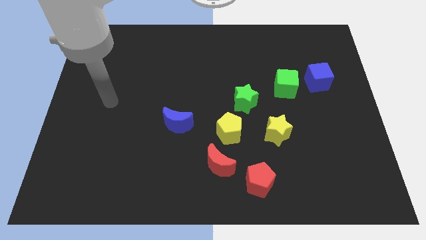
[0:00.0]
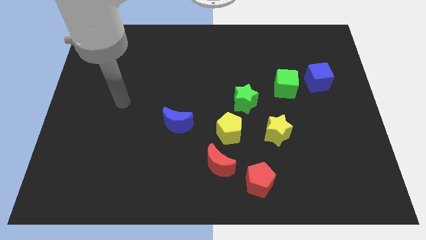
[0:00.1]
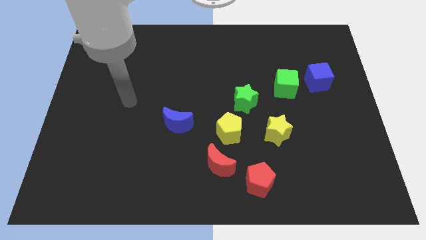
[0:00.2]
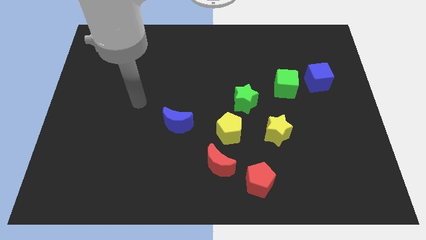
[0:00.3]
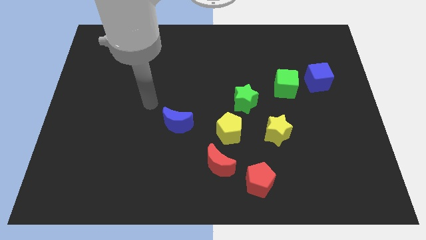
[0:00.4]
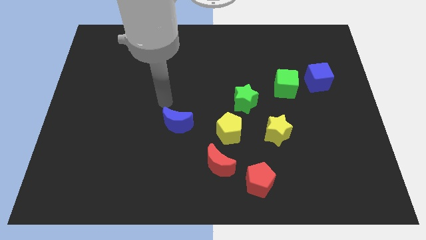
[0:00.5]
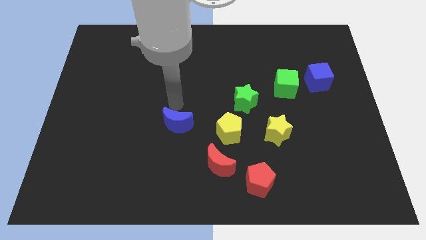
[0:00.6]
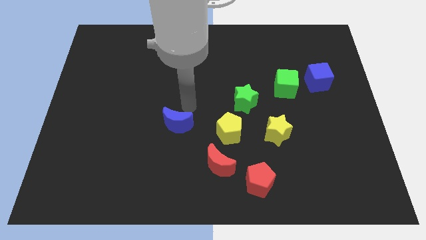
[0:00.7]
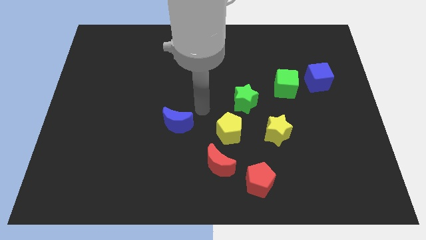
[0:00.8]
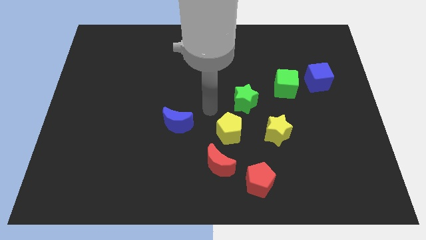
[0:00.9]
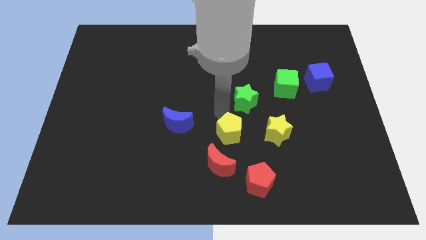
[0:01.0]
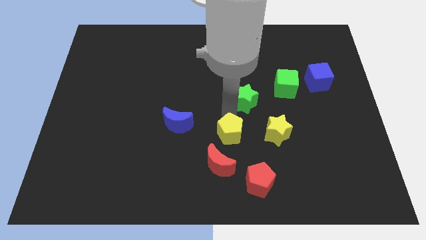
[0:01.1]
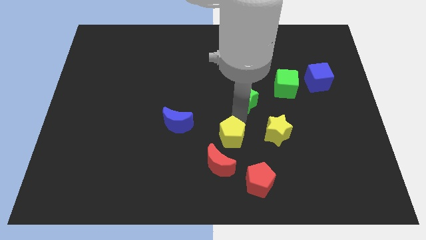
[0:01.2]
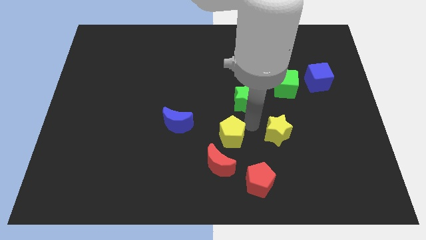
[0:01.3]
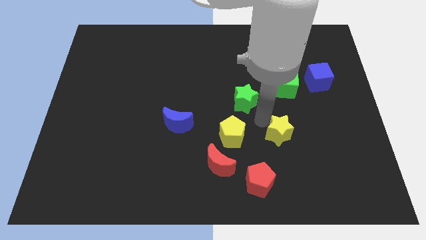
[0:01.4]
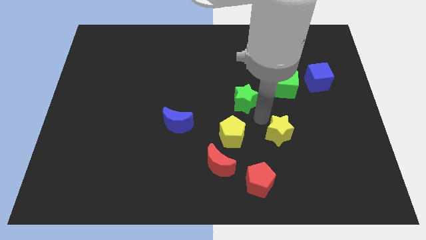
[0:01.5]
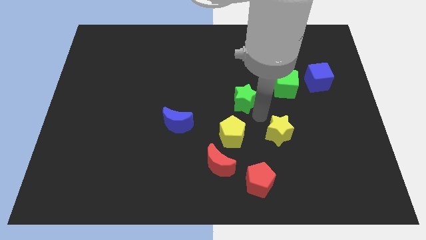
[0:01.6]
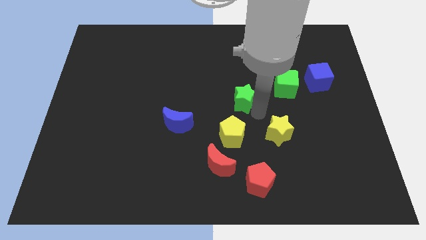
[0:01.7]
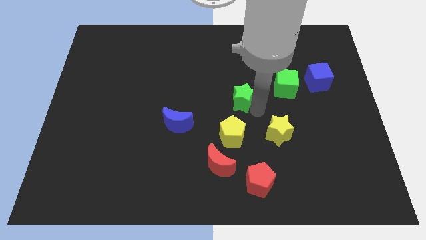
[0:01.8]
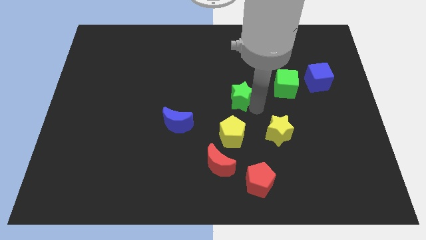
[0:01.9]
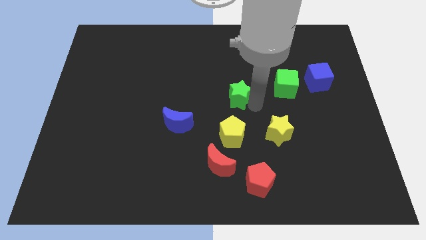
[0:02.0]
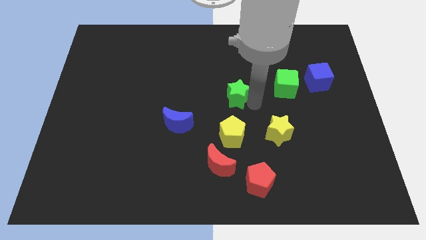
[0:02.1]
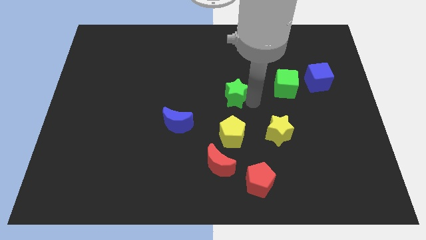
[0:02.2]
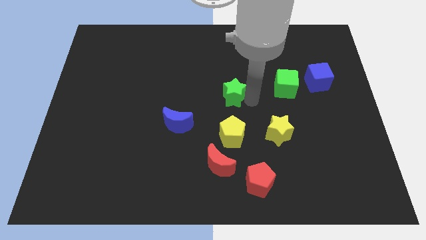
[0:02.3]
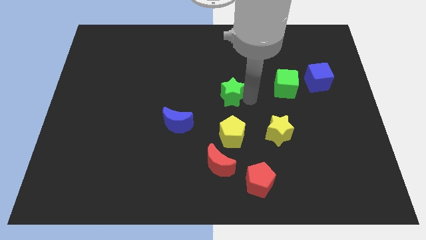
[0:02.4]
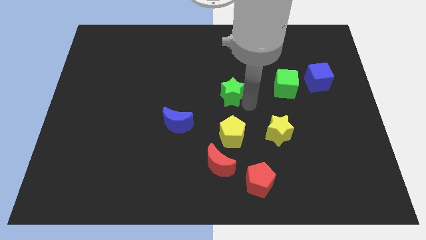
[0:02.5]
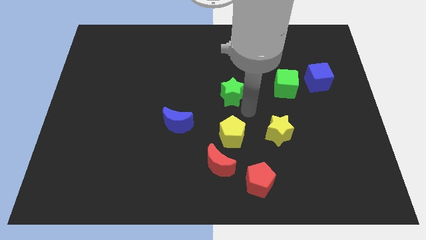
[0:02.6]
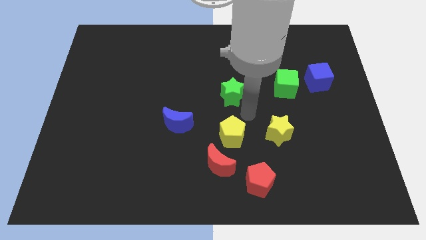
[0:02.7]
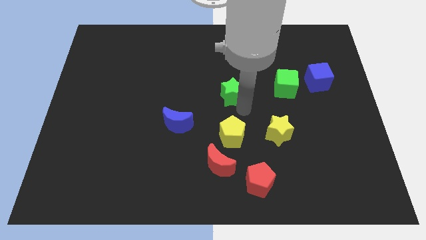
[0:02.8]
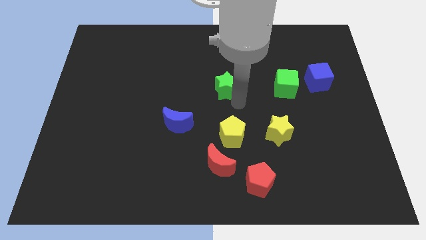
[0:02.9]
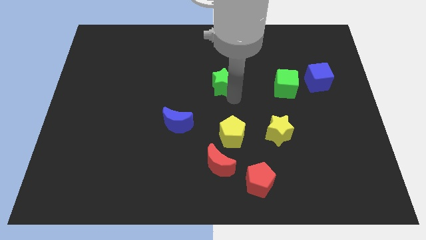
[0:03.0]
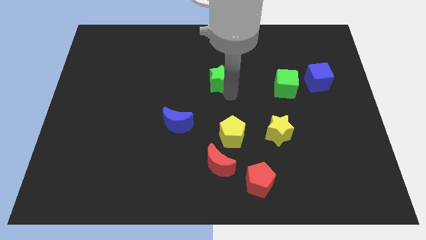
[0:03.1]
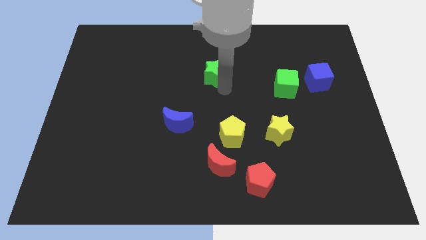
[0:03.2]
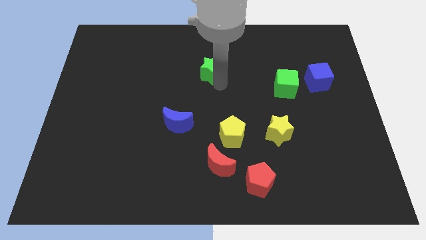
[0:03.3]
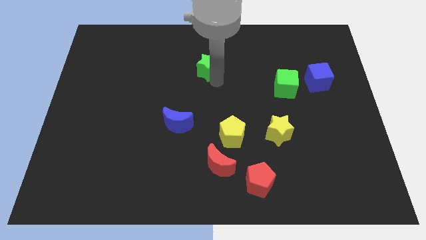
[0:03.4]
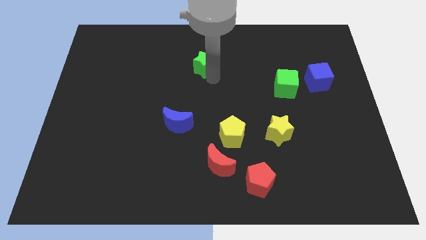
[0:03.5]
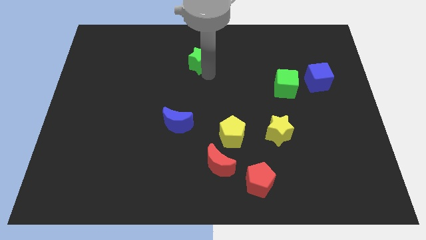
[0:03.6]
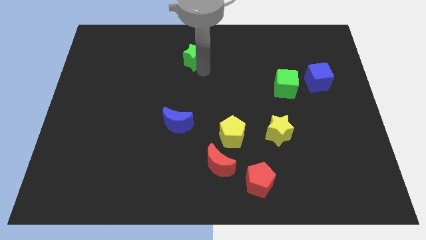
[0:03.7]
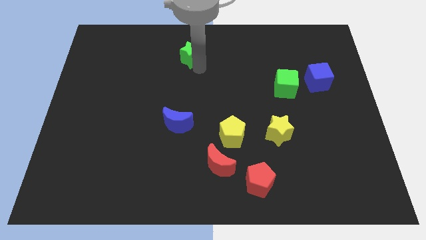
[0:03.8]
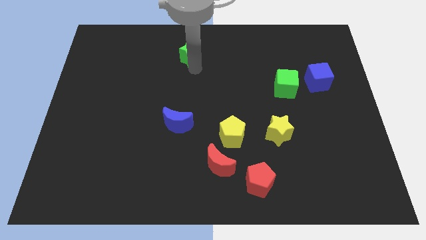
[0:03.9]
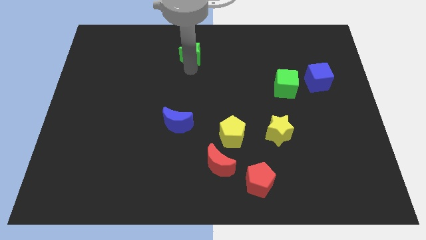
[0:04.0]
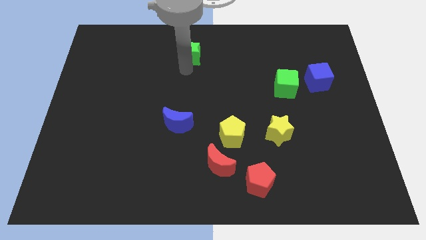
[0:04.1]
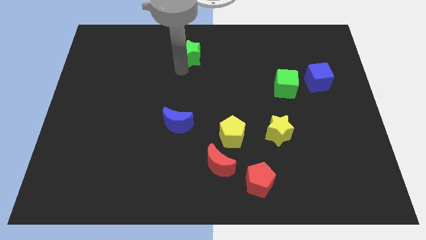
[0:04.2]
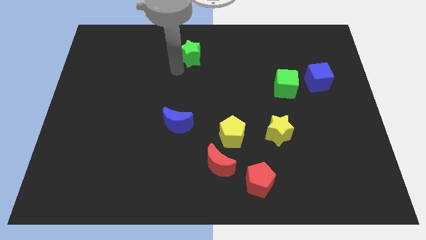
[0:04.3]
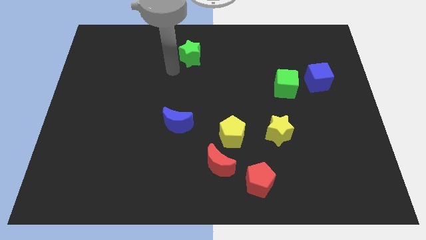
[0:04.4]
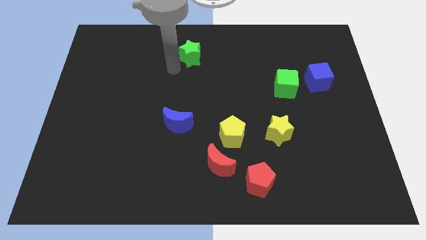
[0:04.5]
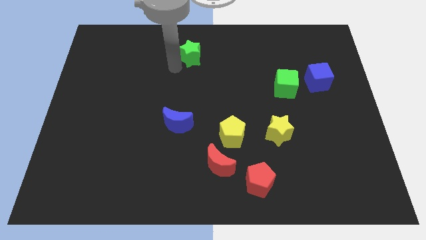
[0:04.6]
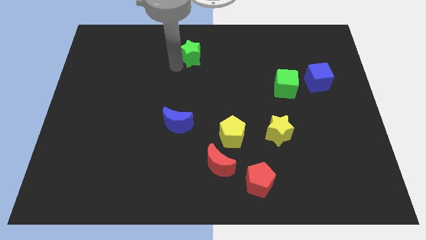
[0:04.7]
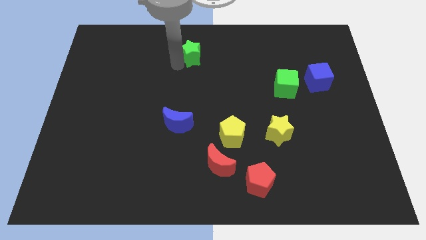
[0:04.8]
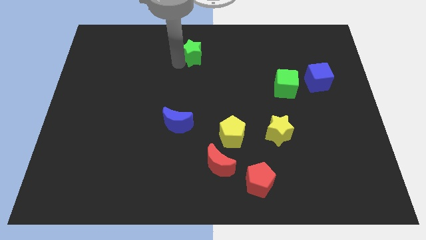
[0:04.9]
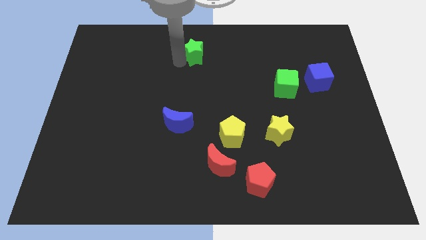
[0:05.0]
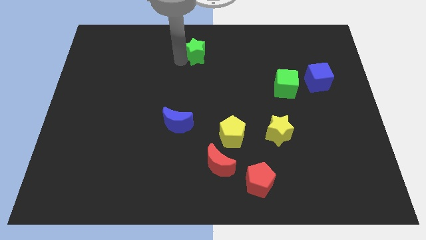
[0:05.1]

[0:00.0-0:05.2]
slide the green star to the top side
